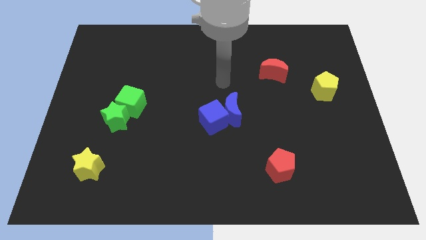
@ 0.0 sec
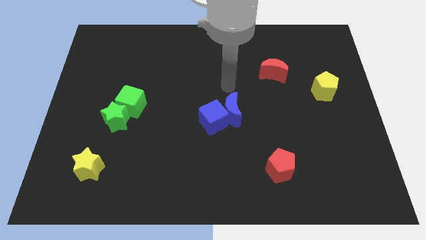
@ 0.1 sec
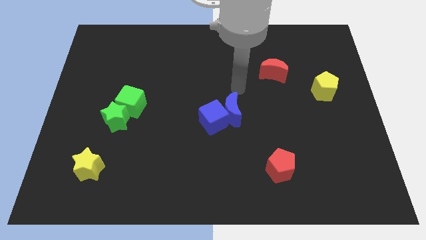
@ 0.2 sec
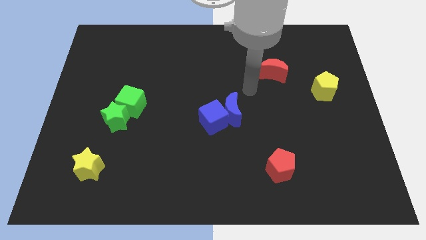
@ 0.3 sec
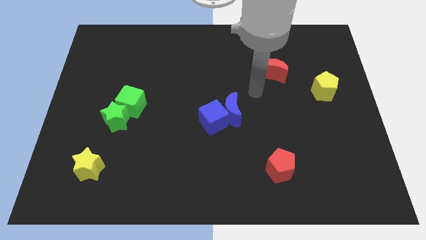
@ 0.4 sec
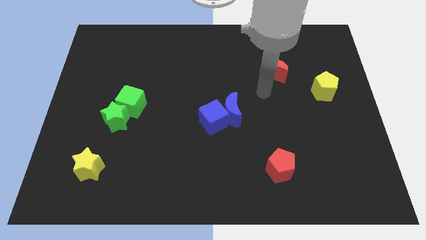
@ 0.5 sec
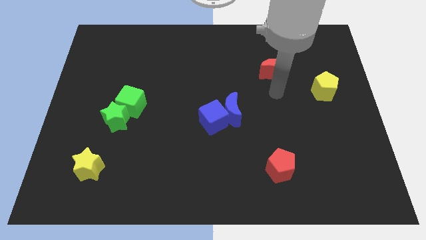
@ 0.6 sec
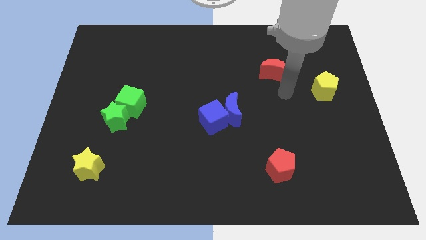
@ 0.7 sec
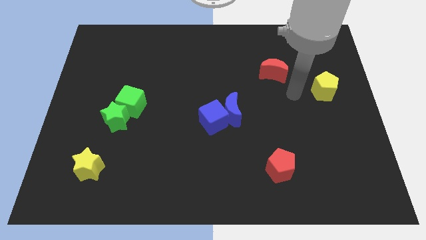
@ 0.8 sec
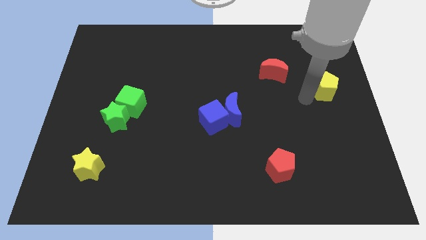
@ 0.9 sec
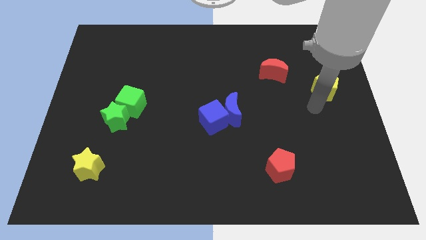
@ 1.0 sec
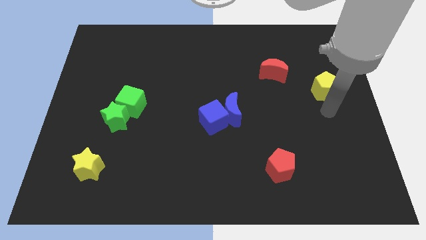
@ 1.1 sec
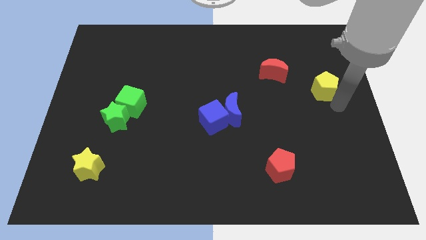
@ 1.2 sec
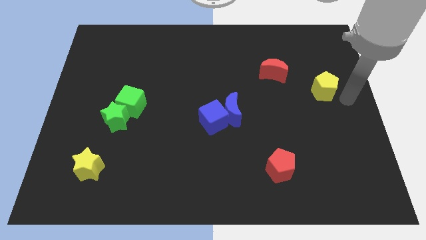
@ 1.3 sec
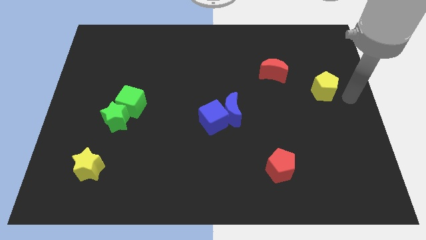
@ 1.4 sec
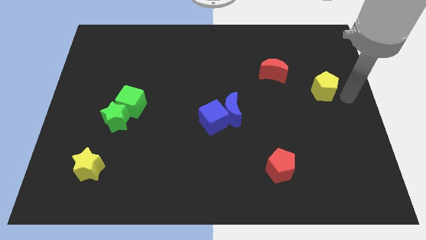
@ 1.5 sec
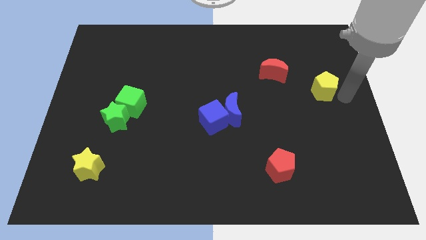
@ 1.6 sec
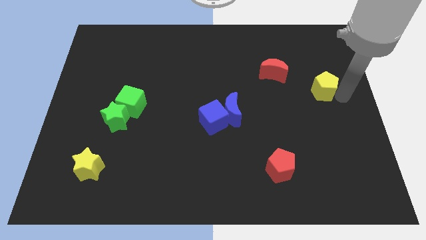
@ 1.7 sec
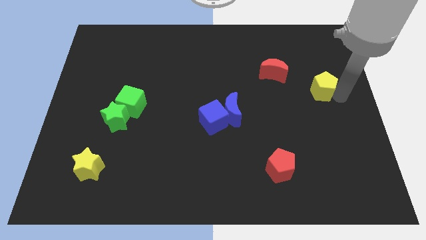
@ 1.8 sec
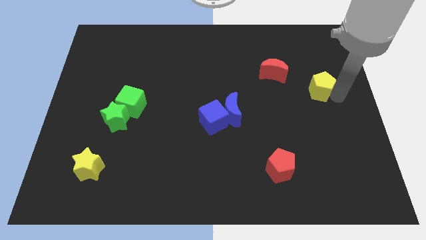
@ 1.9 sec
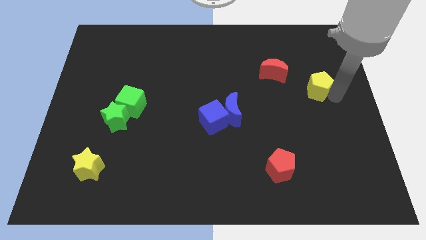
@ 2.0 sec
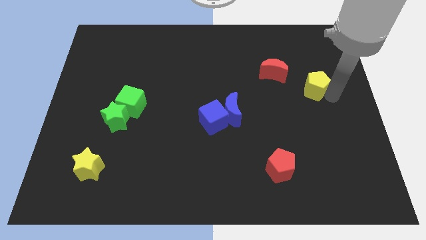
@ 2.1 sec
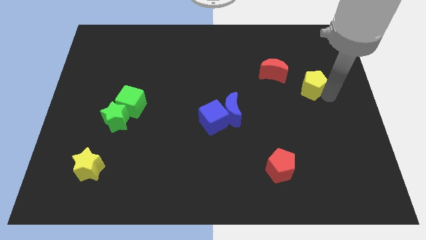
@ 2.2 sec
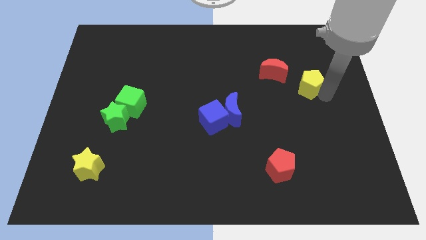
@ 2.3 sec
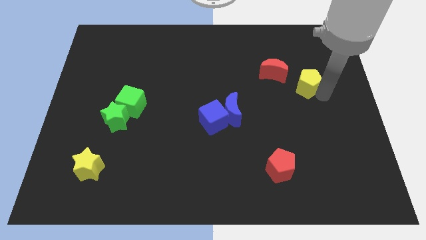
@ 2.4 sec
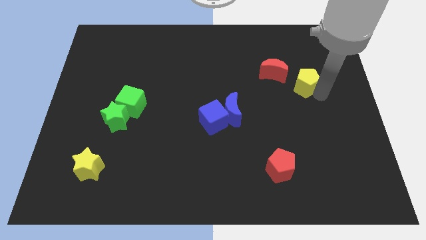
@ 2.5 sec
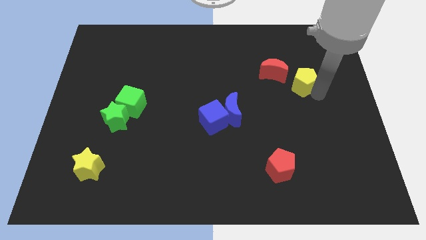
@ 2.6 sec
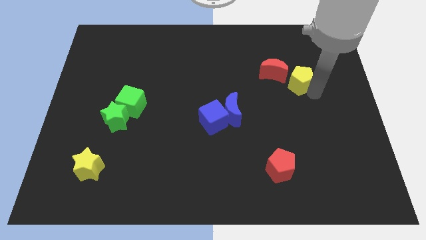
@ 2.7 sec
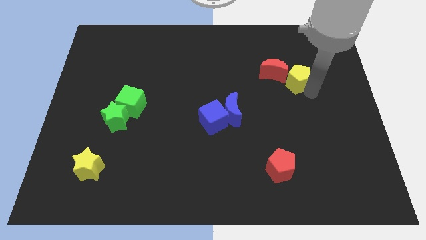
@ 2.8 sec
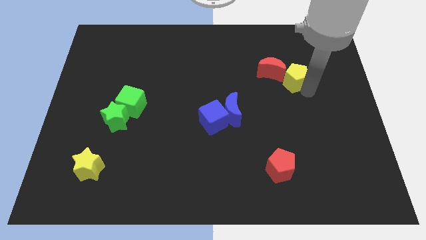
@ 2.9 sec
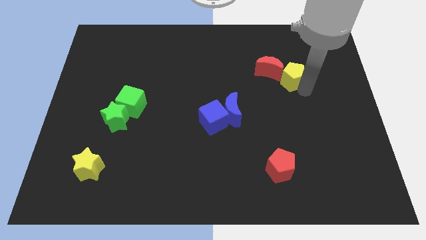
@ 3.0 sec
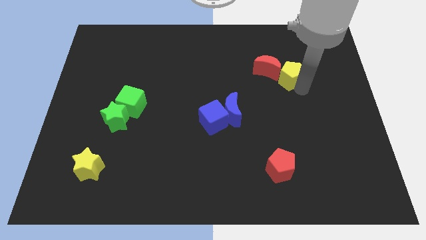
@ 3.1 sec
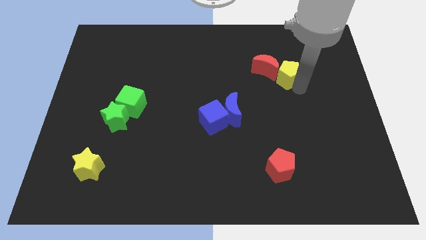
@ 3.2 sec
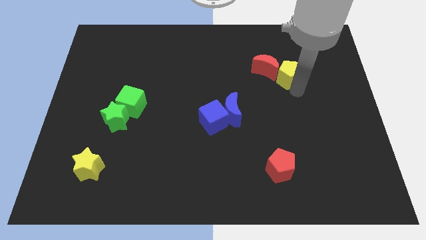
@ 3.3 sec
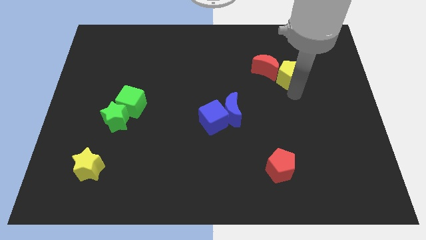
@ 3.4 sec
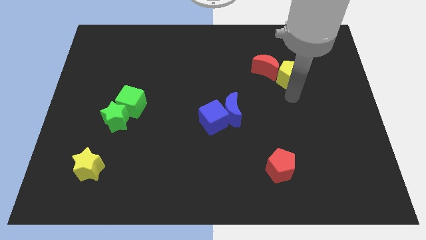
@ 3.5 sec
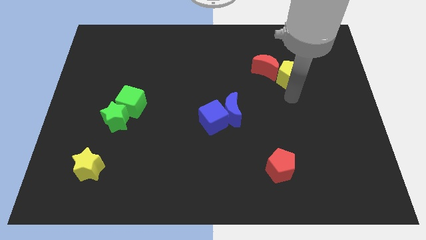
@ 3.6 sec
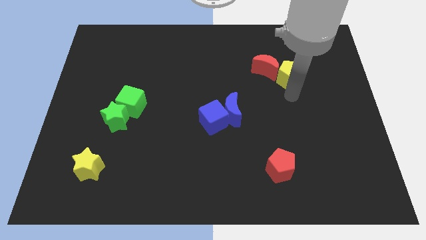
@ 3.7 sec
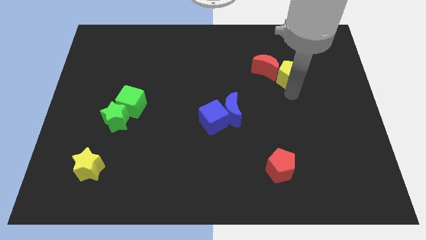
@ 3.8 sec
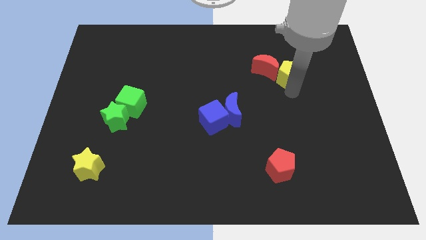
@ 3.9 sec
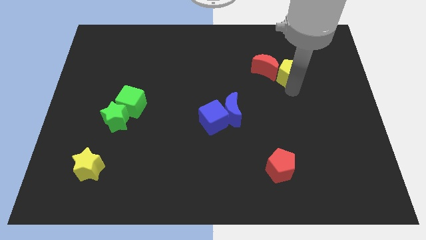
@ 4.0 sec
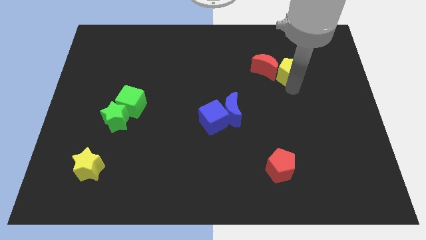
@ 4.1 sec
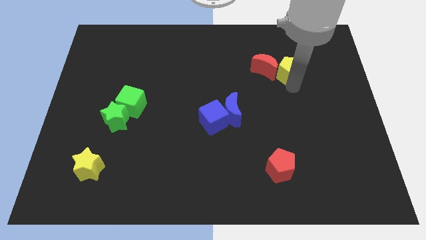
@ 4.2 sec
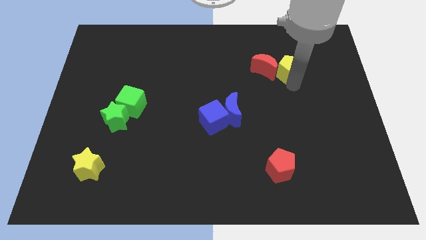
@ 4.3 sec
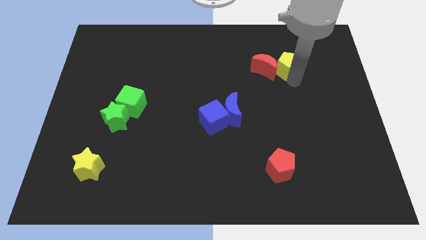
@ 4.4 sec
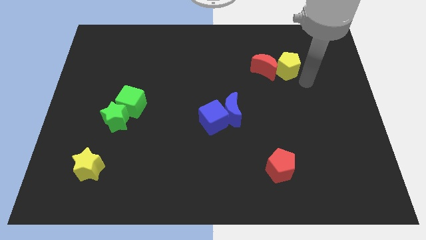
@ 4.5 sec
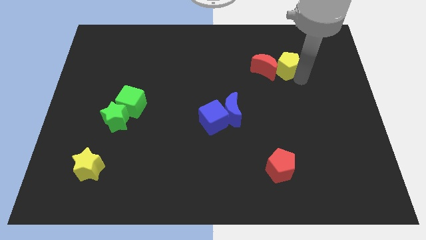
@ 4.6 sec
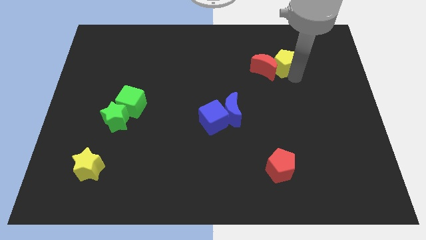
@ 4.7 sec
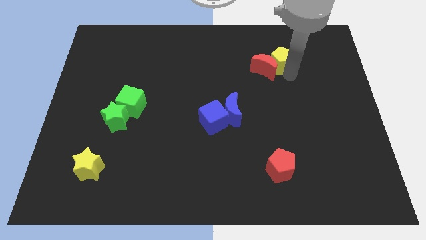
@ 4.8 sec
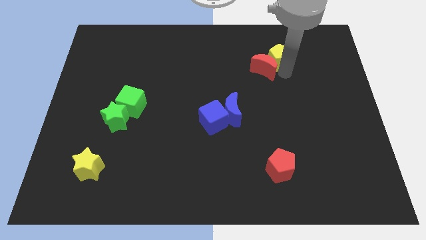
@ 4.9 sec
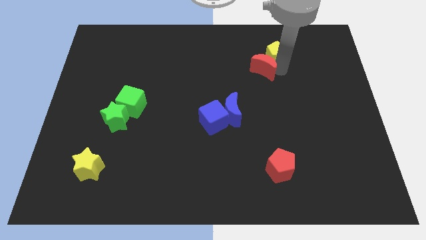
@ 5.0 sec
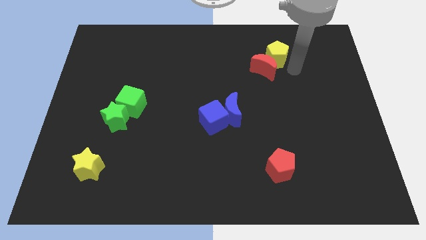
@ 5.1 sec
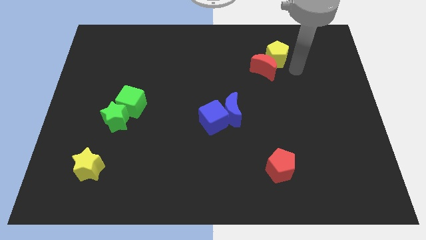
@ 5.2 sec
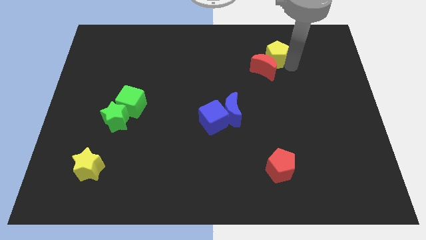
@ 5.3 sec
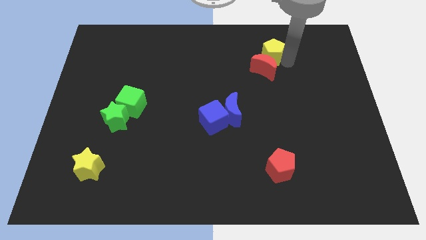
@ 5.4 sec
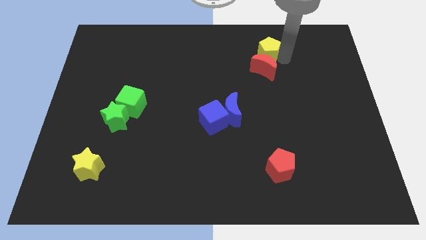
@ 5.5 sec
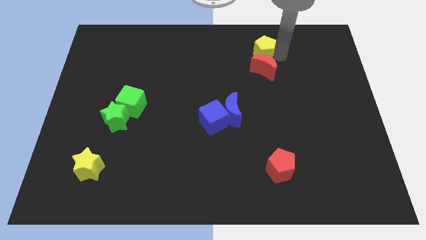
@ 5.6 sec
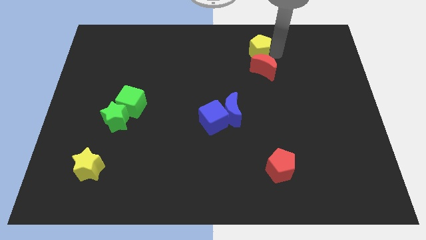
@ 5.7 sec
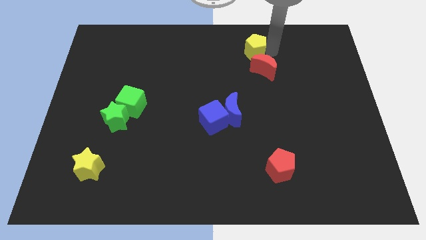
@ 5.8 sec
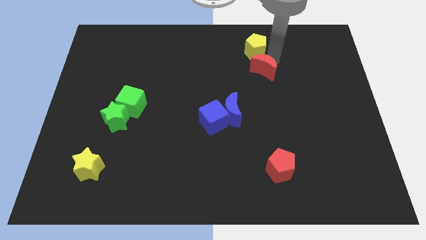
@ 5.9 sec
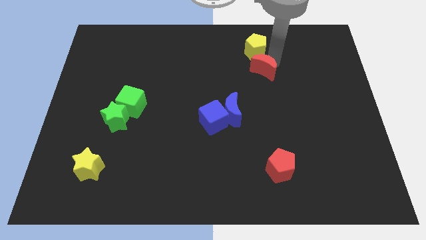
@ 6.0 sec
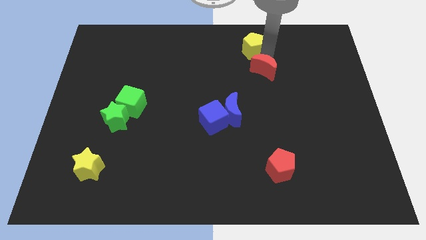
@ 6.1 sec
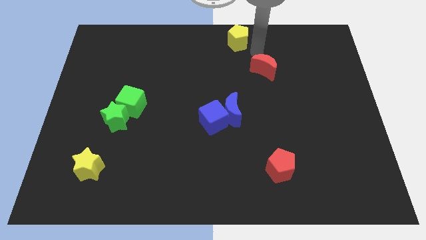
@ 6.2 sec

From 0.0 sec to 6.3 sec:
push the yellow pentagon to the towards your base

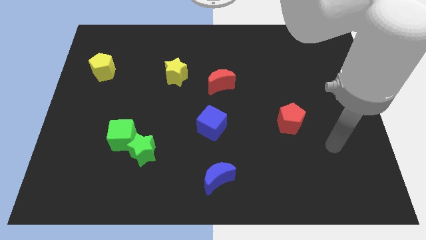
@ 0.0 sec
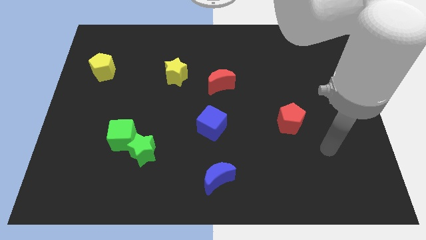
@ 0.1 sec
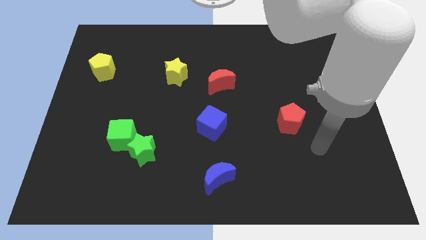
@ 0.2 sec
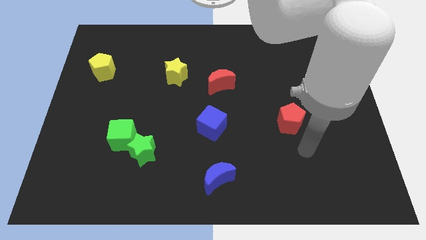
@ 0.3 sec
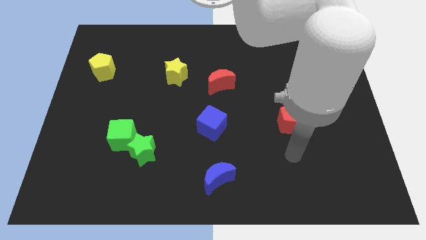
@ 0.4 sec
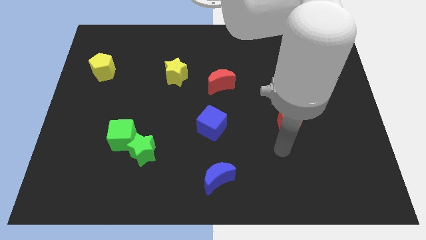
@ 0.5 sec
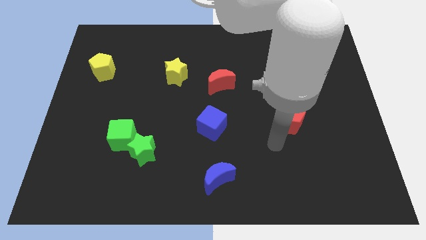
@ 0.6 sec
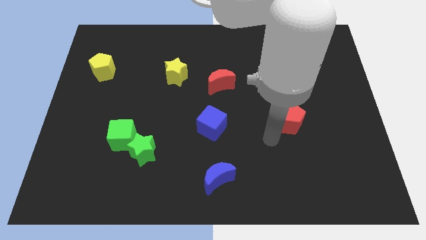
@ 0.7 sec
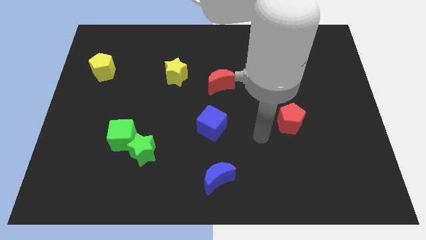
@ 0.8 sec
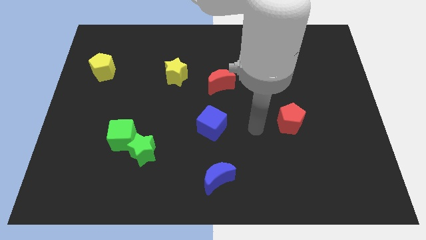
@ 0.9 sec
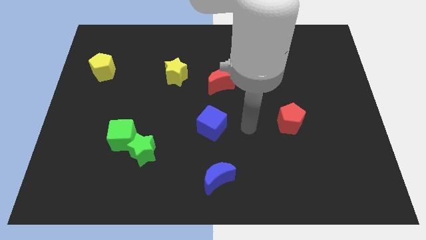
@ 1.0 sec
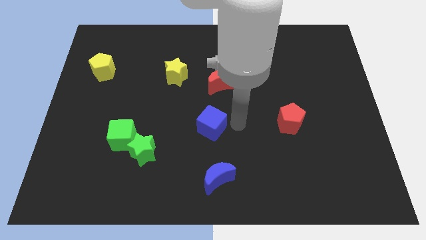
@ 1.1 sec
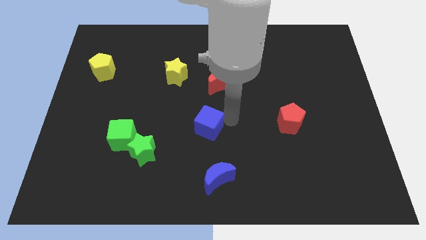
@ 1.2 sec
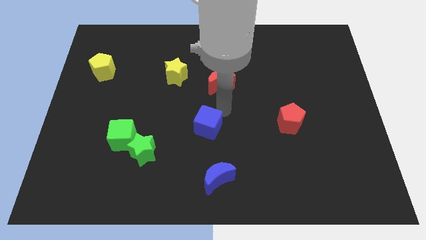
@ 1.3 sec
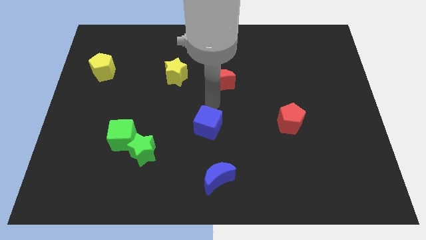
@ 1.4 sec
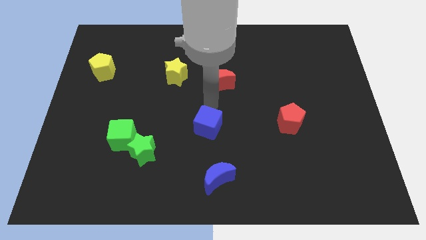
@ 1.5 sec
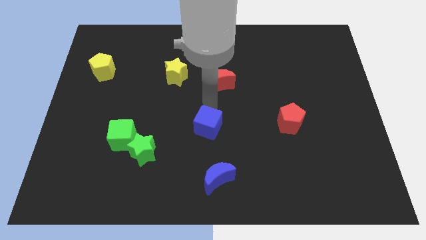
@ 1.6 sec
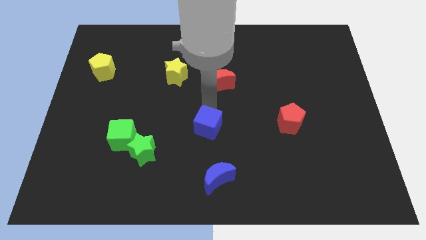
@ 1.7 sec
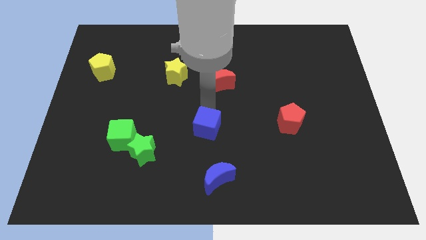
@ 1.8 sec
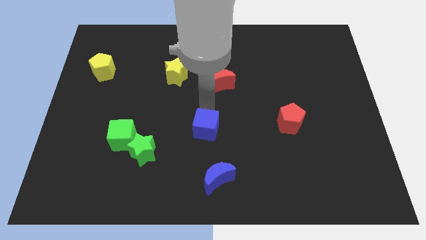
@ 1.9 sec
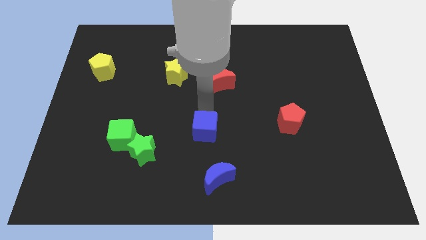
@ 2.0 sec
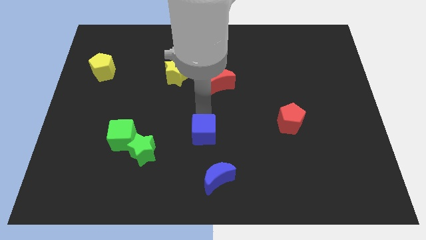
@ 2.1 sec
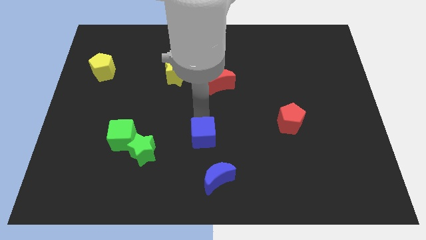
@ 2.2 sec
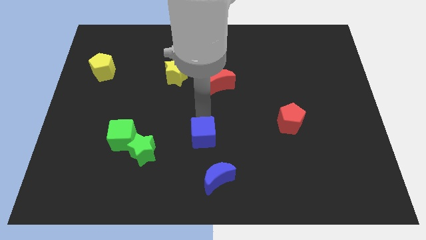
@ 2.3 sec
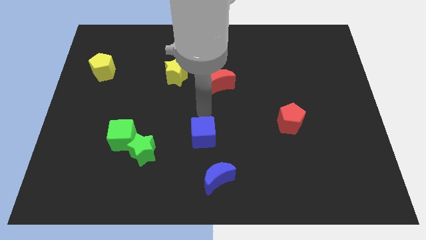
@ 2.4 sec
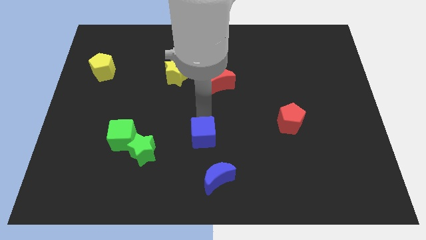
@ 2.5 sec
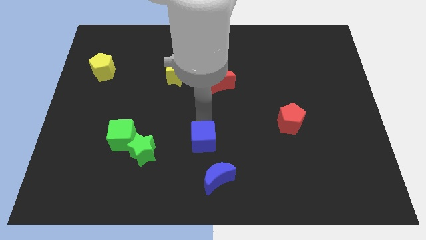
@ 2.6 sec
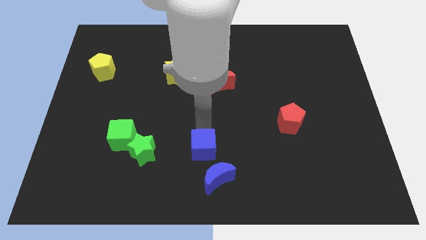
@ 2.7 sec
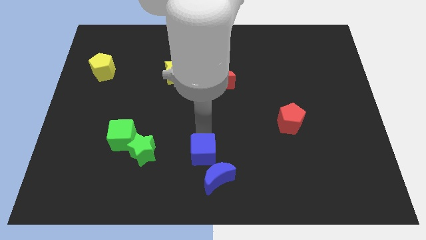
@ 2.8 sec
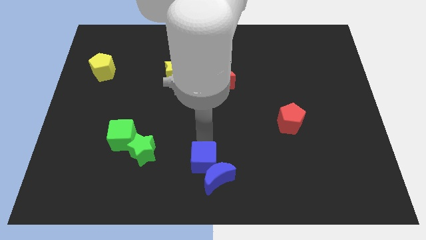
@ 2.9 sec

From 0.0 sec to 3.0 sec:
move the blue cube to the bottom
